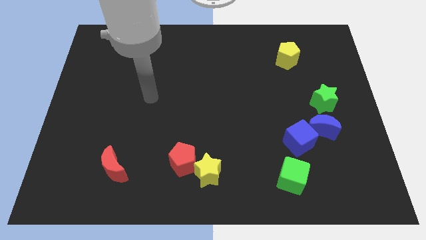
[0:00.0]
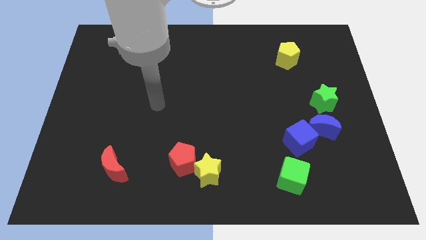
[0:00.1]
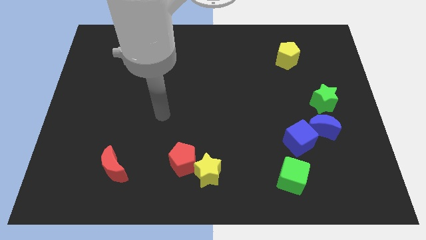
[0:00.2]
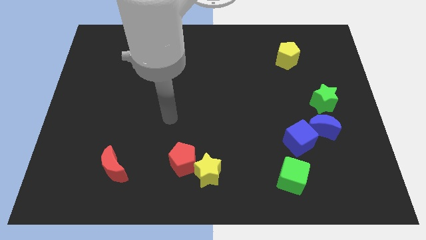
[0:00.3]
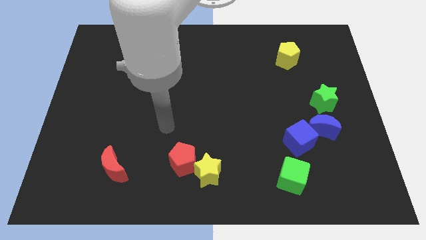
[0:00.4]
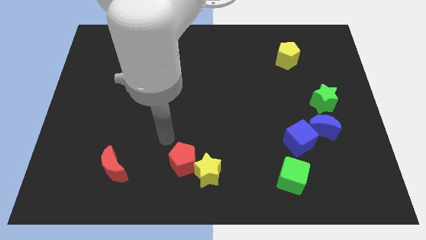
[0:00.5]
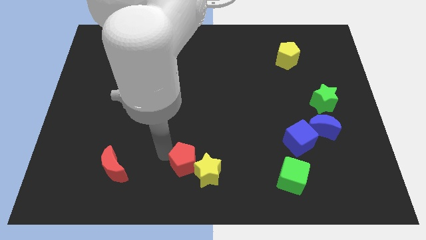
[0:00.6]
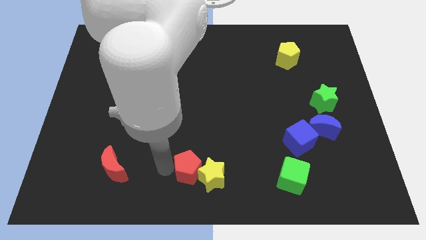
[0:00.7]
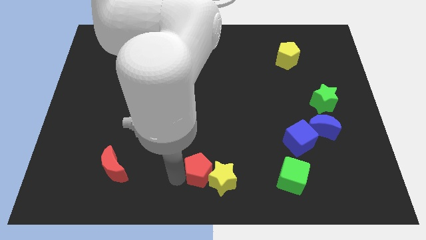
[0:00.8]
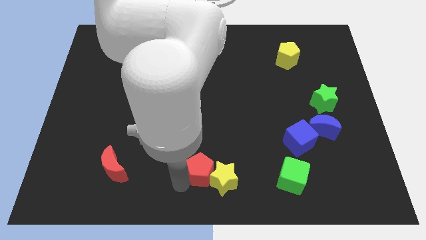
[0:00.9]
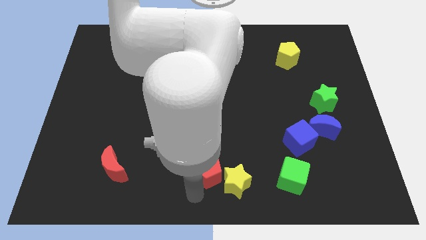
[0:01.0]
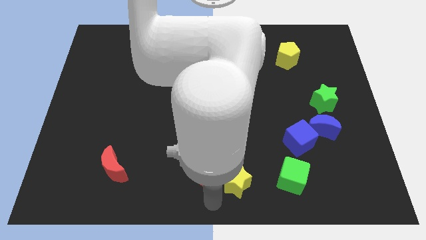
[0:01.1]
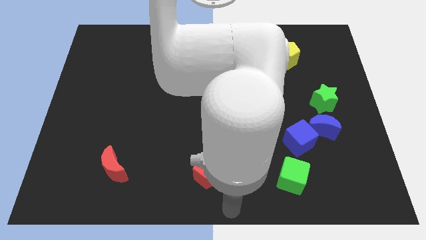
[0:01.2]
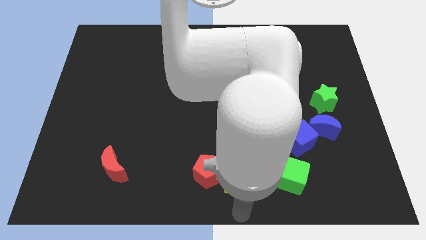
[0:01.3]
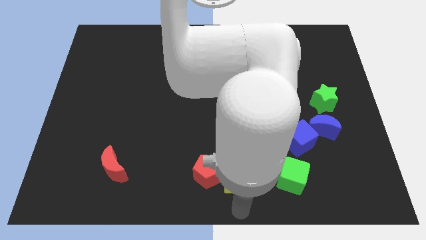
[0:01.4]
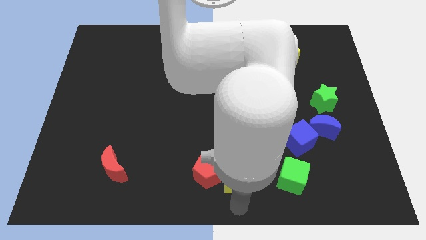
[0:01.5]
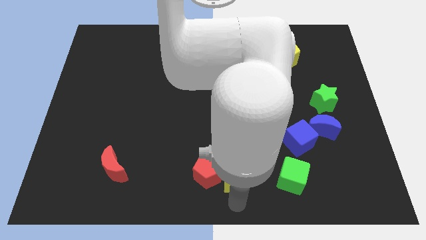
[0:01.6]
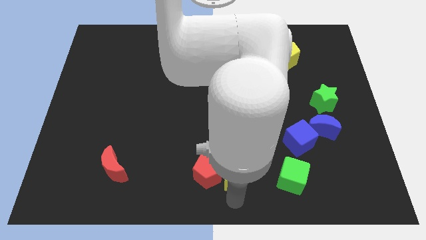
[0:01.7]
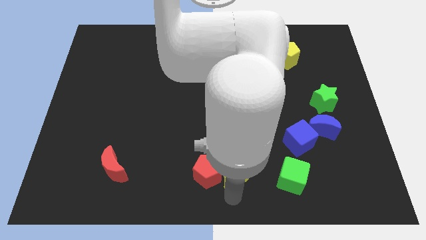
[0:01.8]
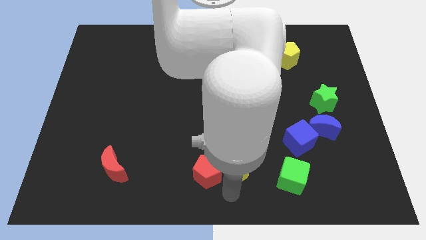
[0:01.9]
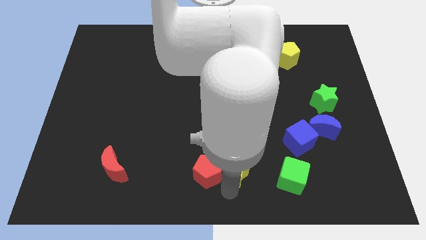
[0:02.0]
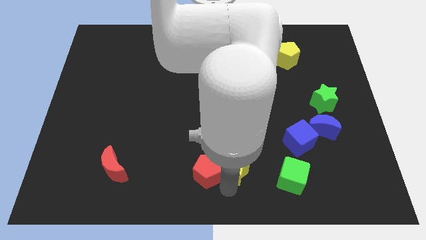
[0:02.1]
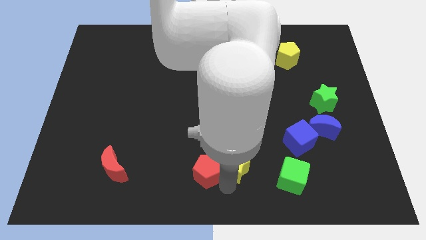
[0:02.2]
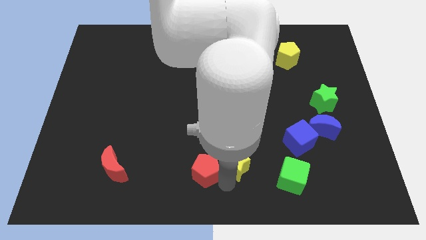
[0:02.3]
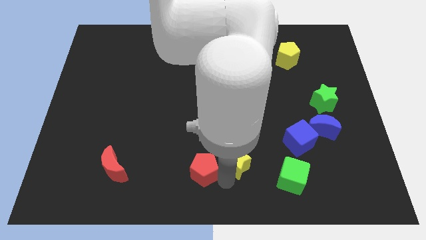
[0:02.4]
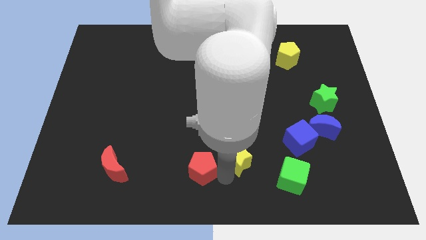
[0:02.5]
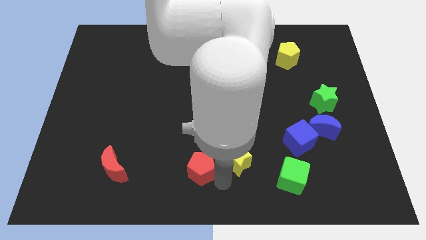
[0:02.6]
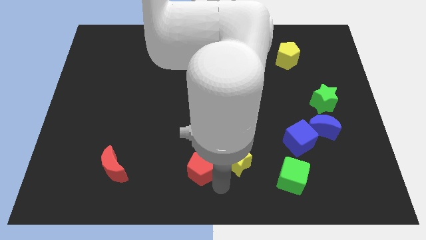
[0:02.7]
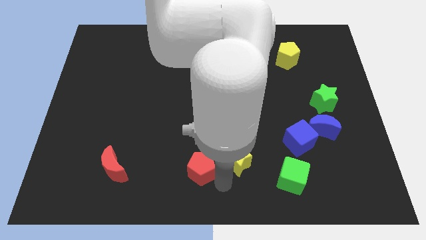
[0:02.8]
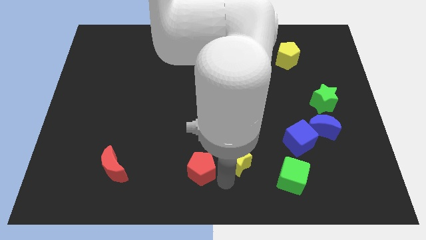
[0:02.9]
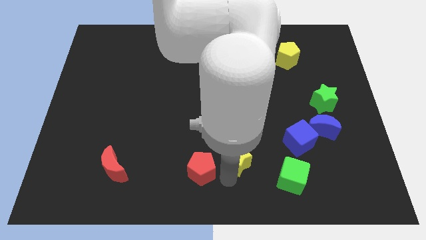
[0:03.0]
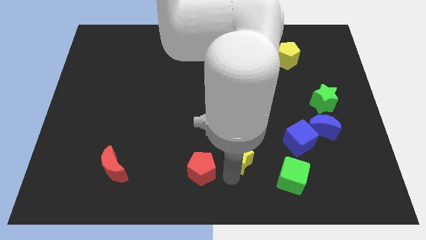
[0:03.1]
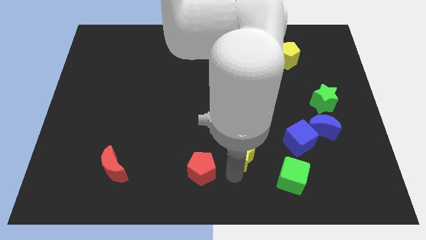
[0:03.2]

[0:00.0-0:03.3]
move the yellow star upwards and to the right somewhat

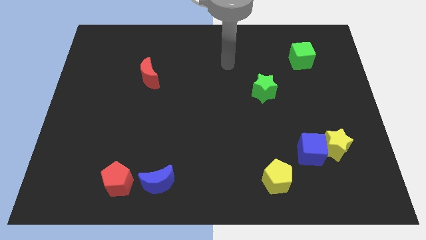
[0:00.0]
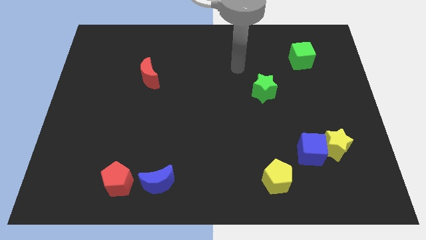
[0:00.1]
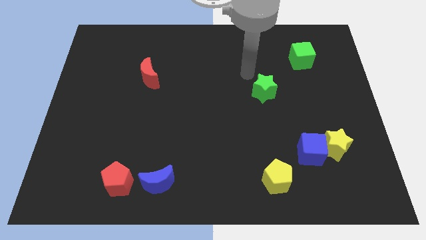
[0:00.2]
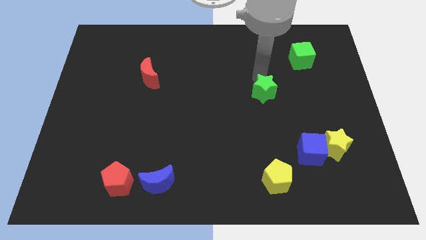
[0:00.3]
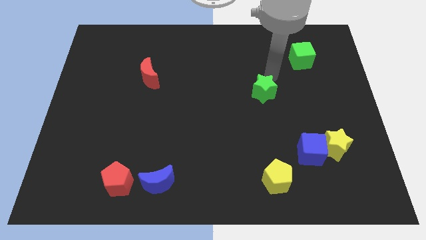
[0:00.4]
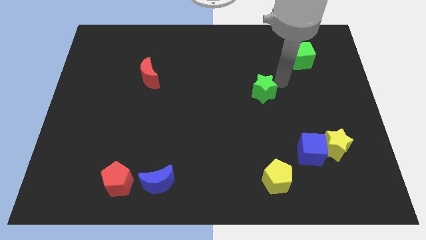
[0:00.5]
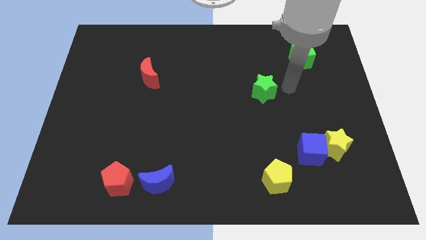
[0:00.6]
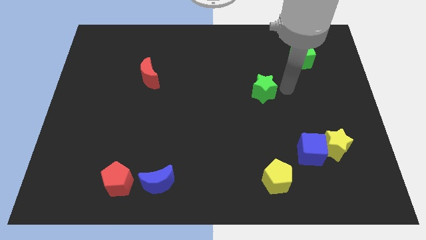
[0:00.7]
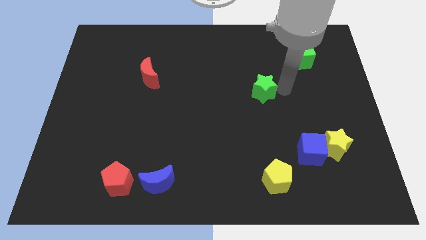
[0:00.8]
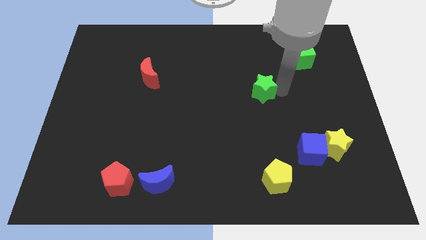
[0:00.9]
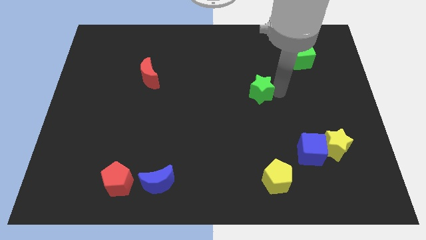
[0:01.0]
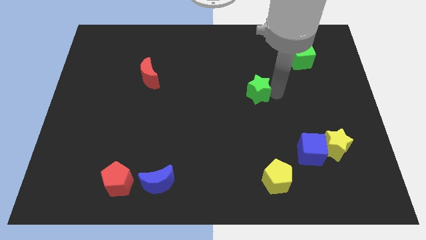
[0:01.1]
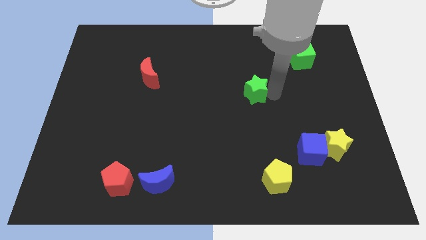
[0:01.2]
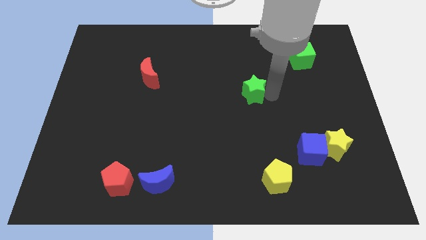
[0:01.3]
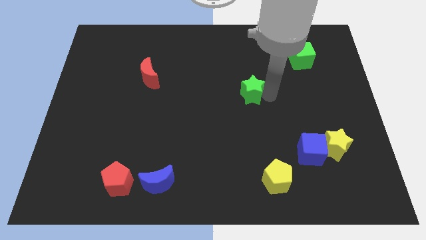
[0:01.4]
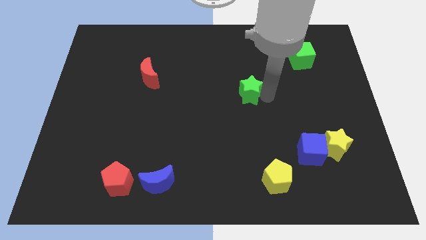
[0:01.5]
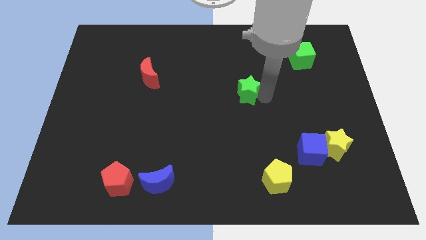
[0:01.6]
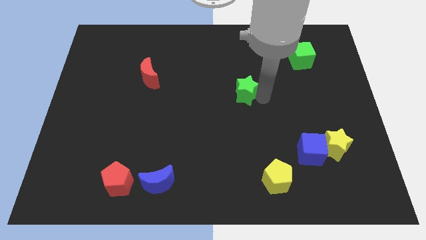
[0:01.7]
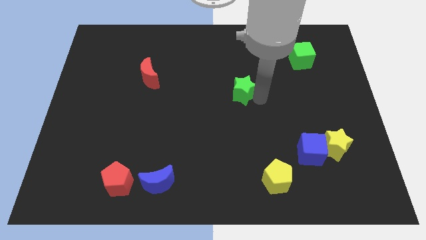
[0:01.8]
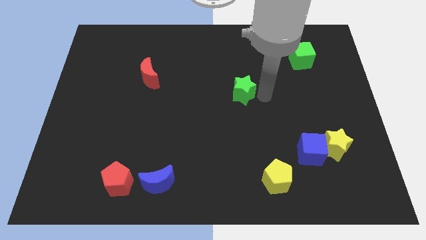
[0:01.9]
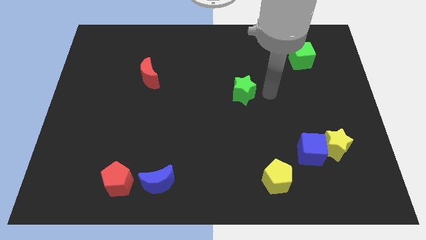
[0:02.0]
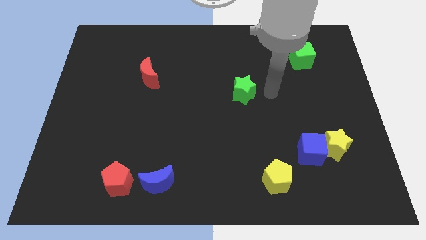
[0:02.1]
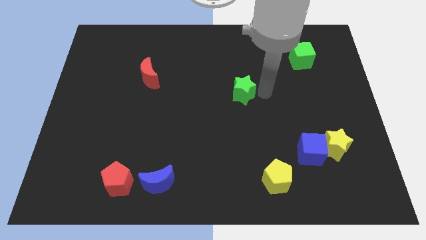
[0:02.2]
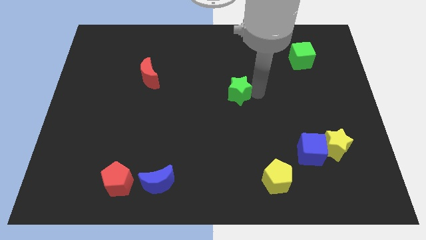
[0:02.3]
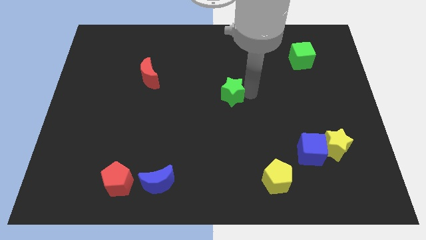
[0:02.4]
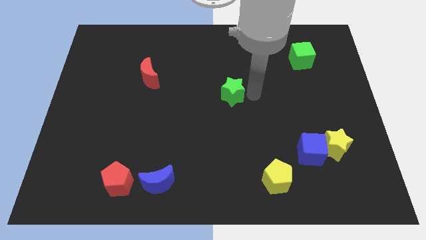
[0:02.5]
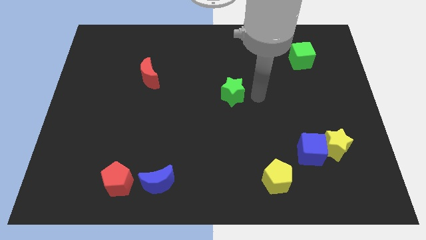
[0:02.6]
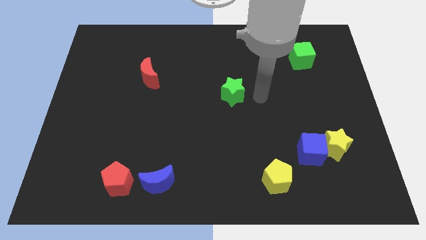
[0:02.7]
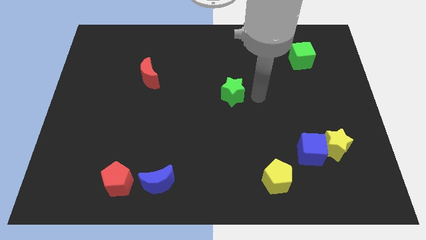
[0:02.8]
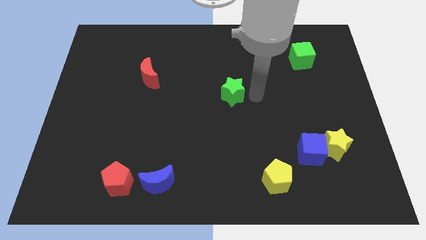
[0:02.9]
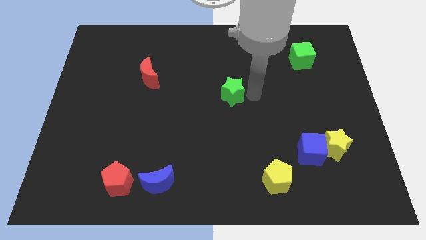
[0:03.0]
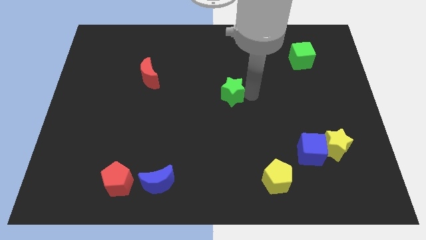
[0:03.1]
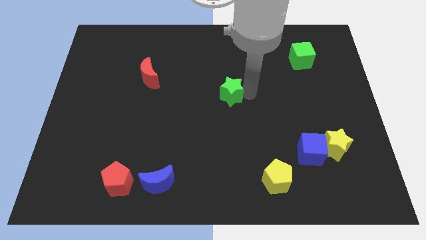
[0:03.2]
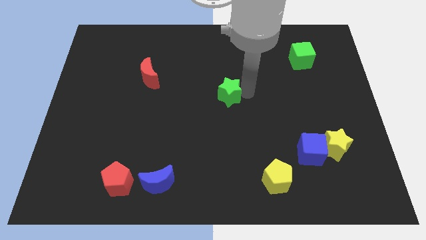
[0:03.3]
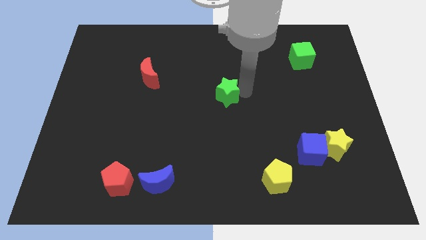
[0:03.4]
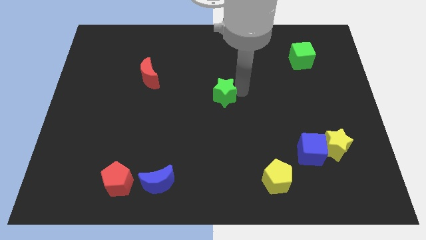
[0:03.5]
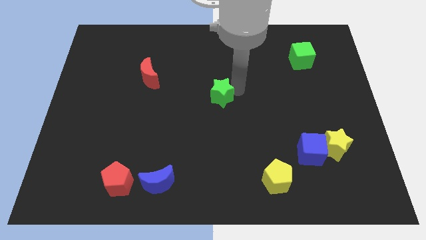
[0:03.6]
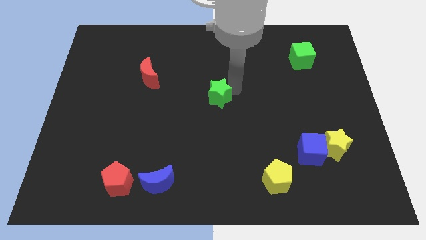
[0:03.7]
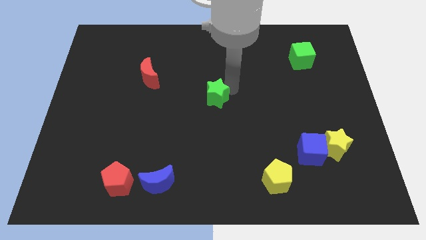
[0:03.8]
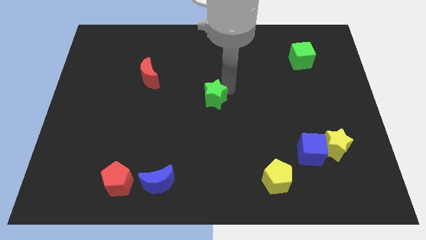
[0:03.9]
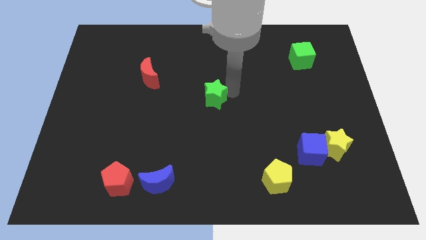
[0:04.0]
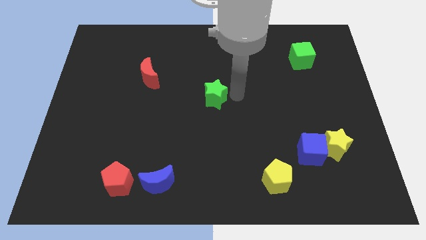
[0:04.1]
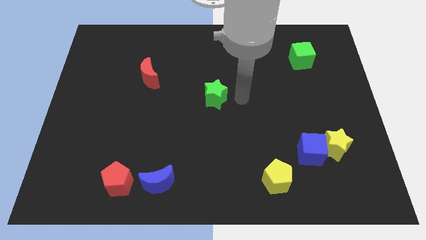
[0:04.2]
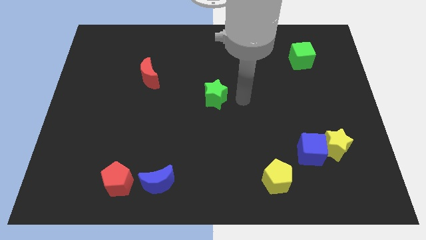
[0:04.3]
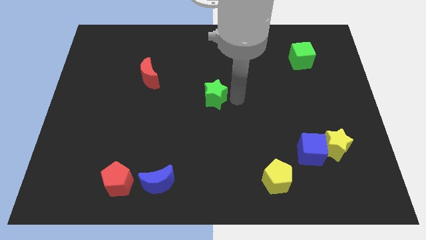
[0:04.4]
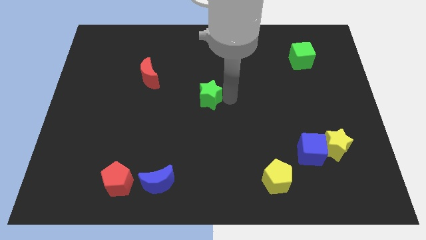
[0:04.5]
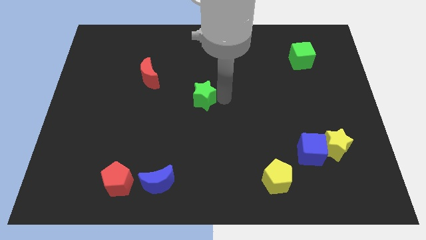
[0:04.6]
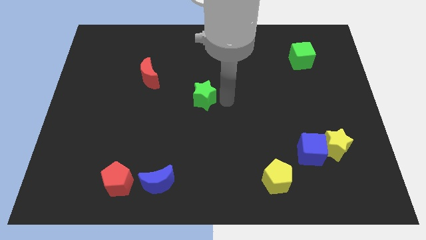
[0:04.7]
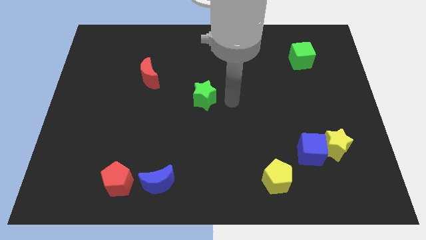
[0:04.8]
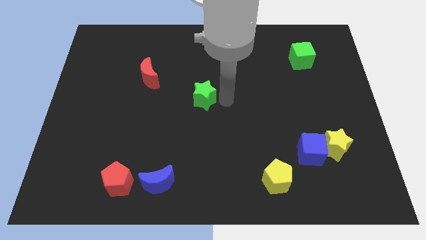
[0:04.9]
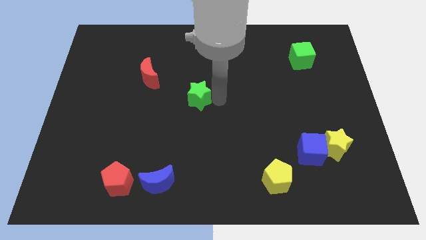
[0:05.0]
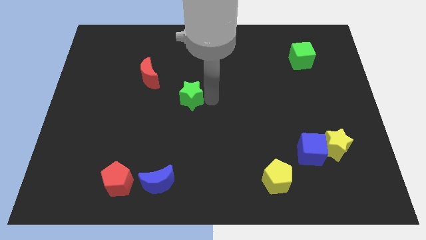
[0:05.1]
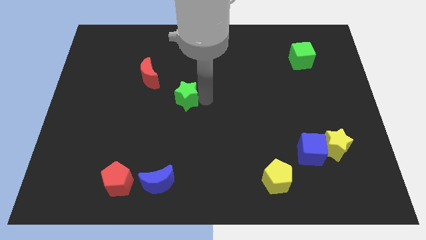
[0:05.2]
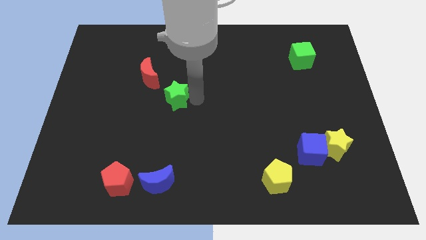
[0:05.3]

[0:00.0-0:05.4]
move the green star left
